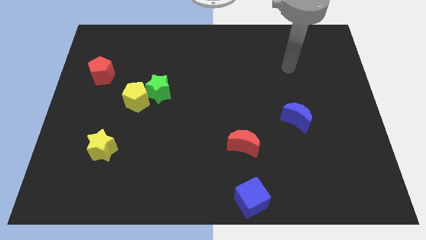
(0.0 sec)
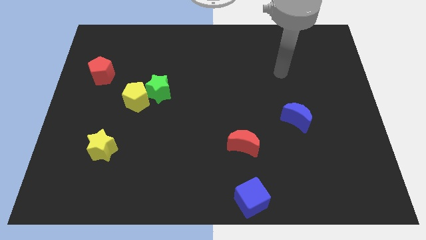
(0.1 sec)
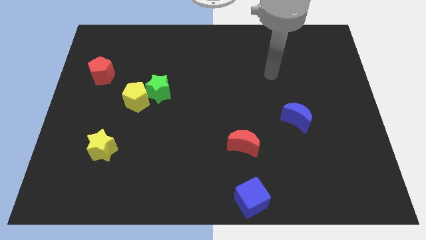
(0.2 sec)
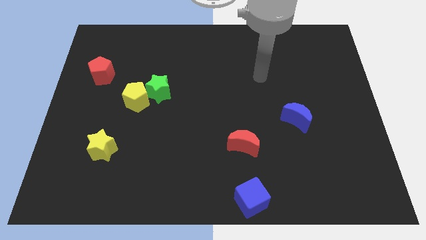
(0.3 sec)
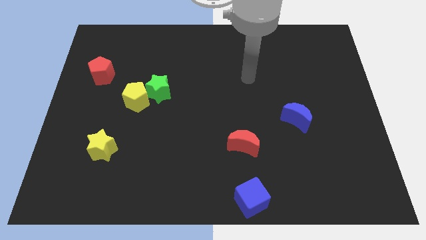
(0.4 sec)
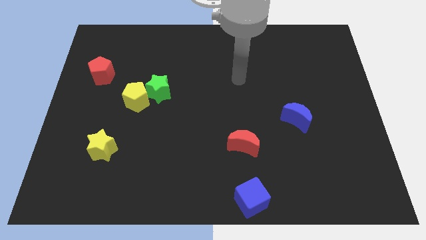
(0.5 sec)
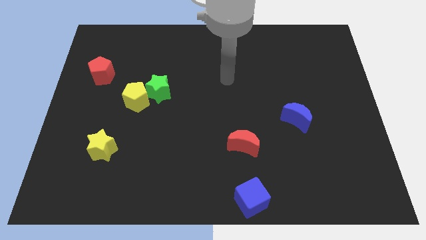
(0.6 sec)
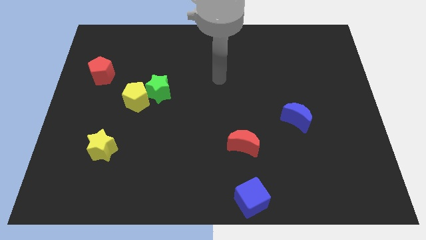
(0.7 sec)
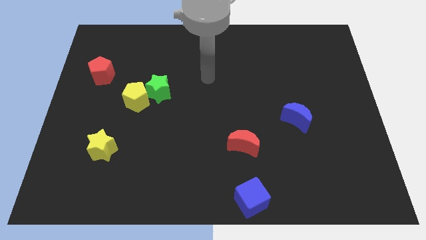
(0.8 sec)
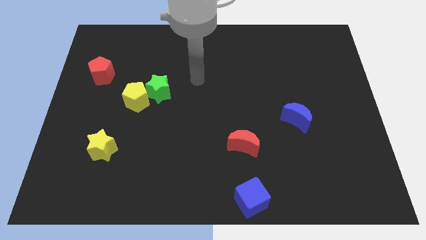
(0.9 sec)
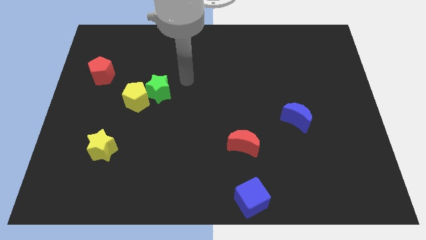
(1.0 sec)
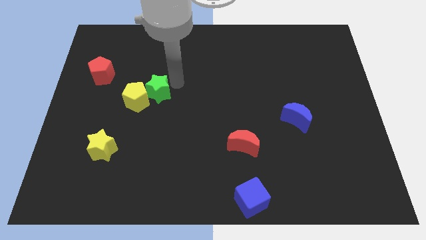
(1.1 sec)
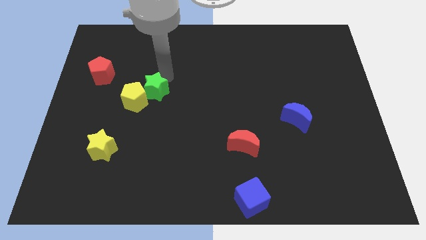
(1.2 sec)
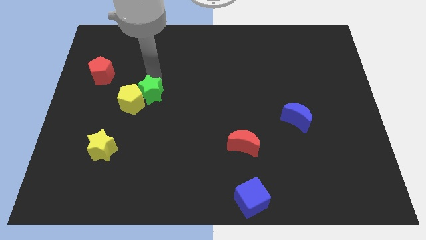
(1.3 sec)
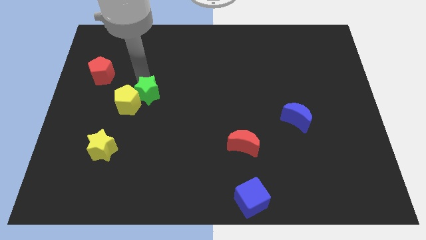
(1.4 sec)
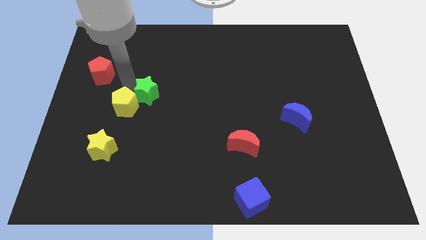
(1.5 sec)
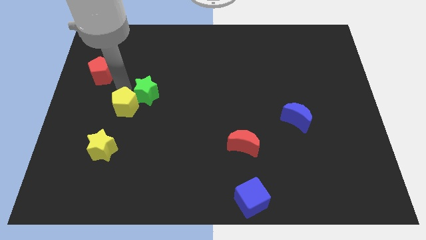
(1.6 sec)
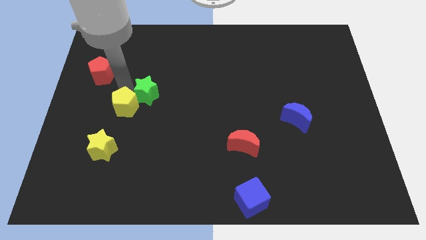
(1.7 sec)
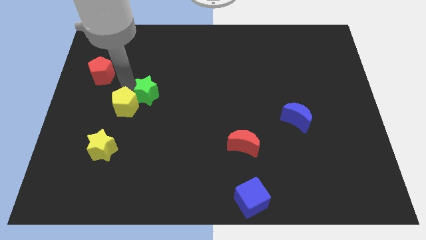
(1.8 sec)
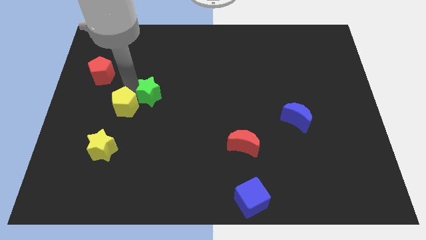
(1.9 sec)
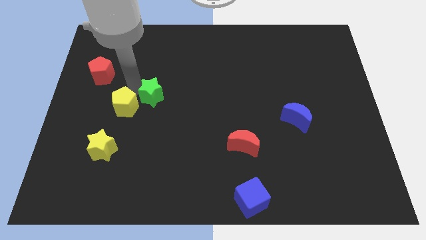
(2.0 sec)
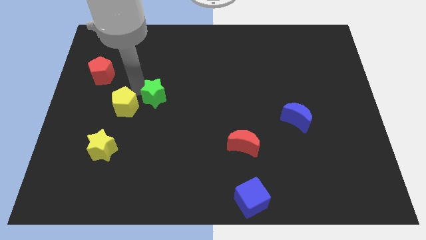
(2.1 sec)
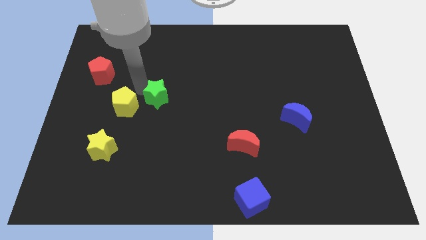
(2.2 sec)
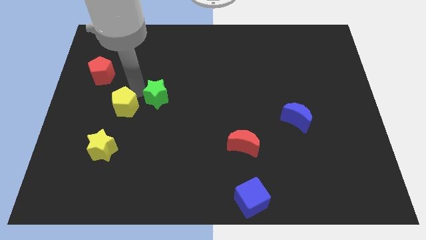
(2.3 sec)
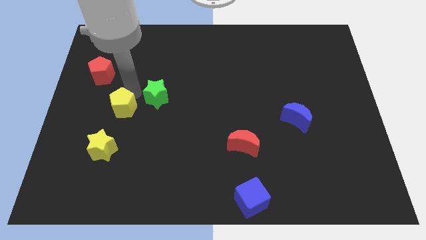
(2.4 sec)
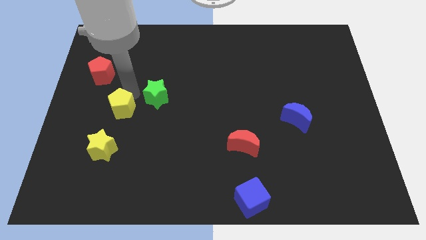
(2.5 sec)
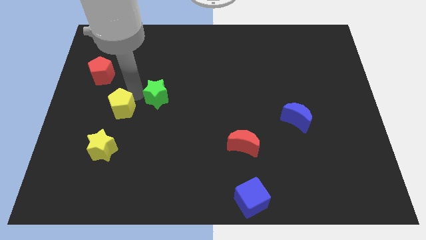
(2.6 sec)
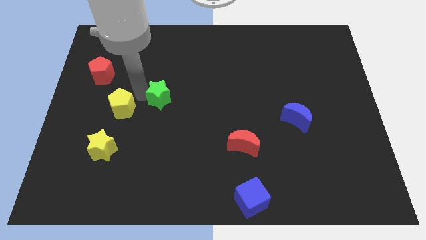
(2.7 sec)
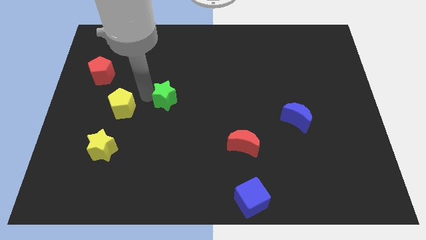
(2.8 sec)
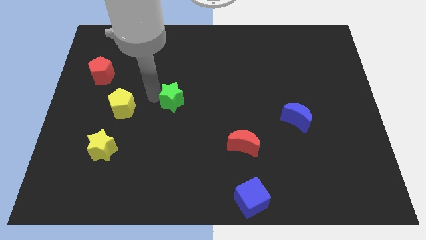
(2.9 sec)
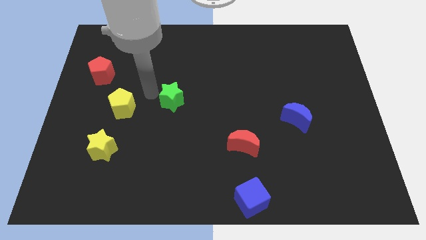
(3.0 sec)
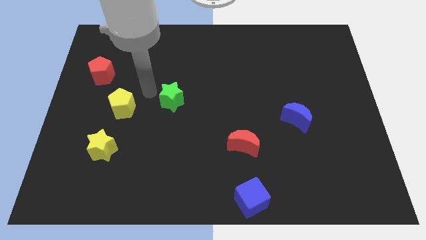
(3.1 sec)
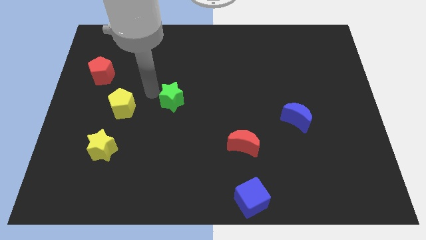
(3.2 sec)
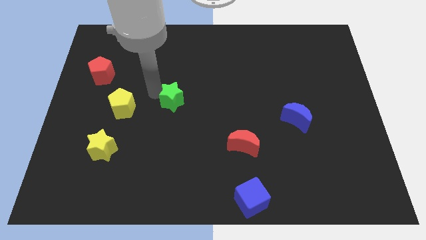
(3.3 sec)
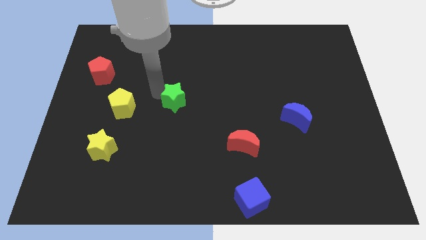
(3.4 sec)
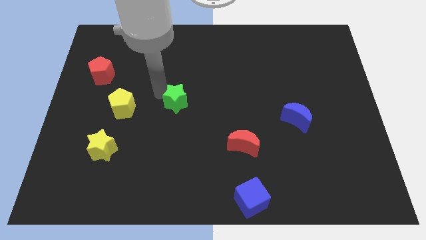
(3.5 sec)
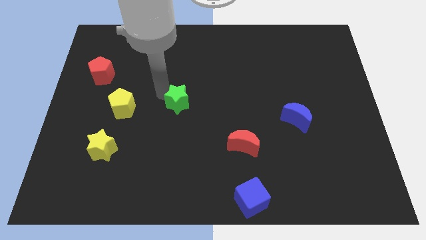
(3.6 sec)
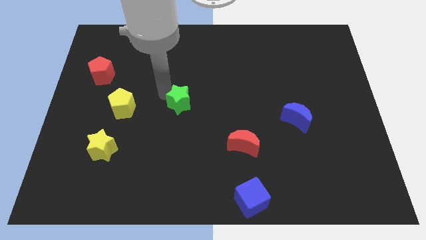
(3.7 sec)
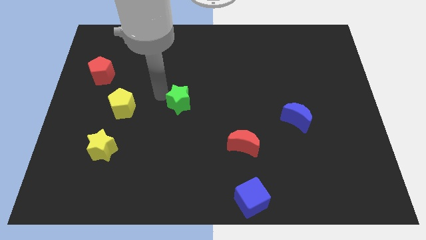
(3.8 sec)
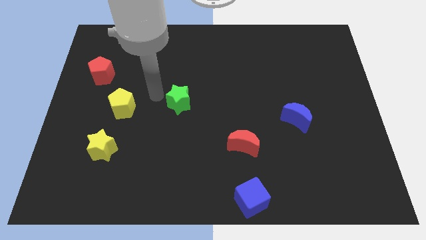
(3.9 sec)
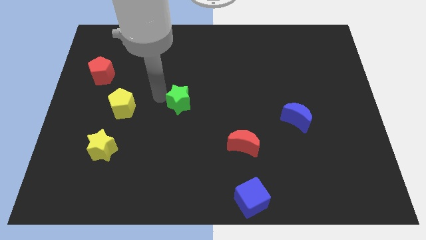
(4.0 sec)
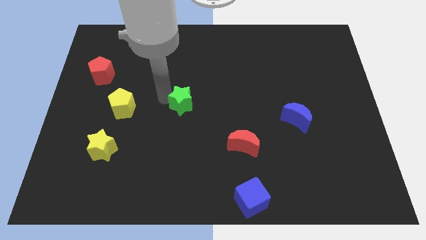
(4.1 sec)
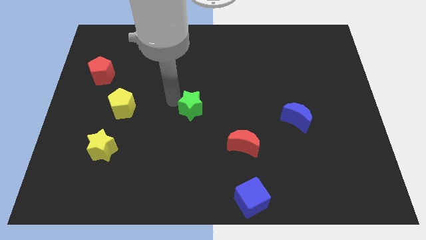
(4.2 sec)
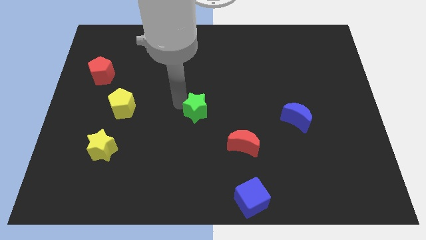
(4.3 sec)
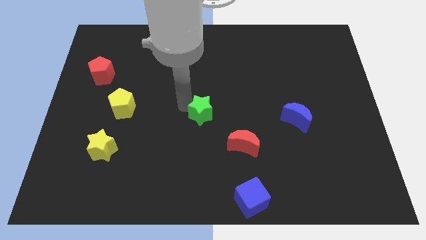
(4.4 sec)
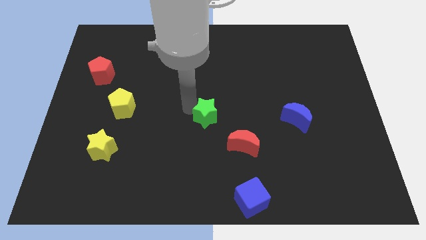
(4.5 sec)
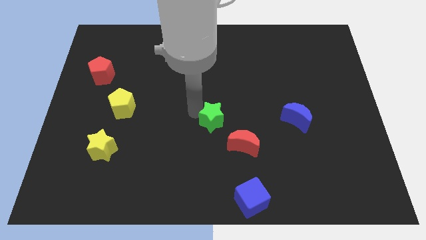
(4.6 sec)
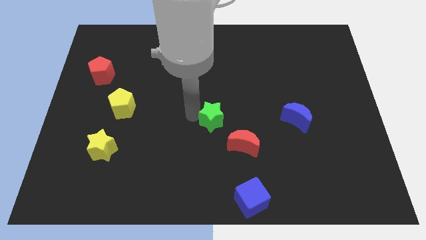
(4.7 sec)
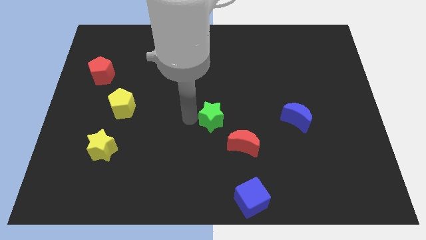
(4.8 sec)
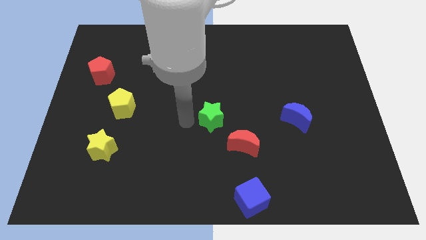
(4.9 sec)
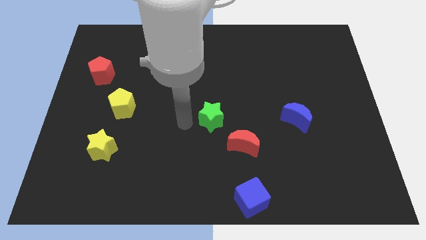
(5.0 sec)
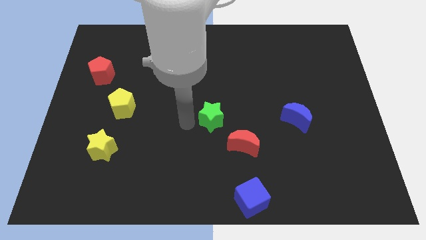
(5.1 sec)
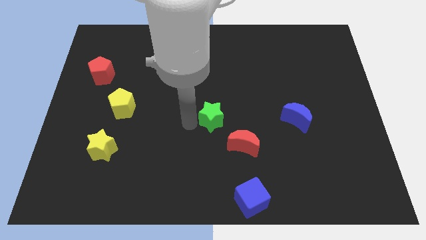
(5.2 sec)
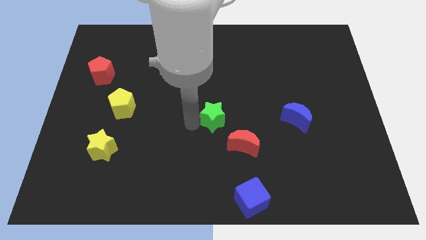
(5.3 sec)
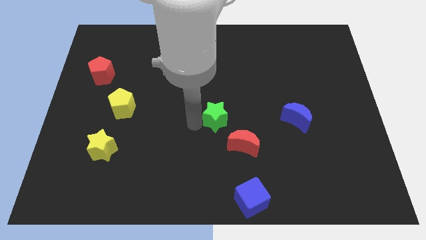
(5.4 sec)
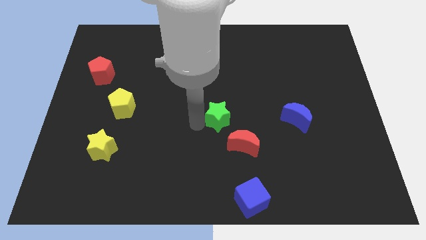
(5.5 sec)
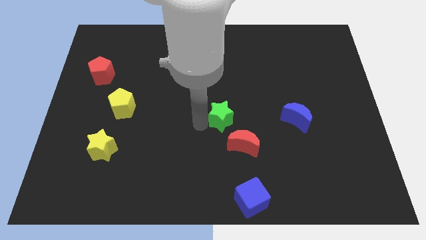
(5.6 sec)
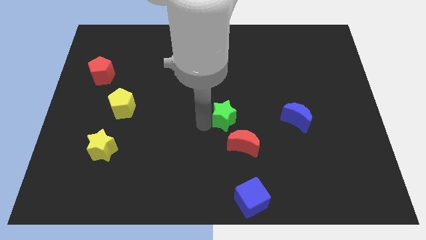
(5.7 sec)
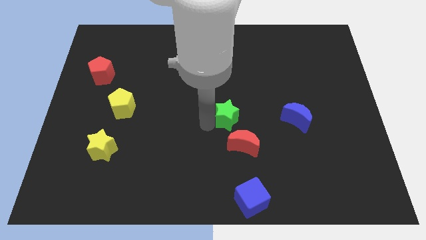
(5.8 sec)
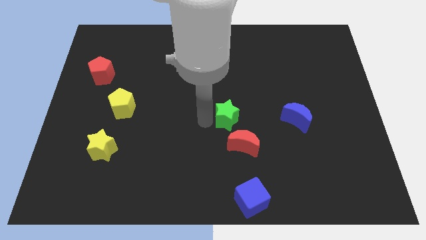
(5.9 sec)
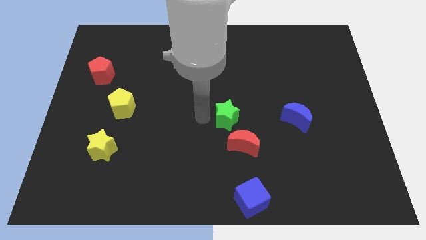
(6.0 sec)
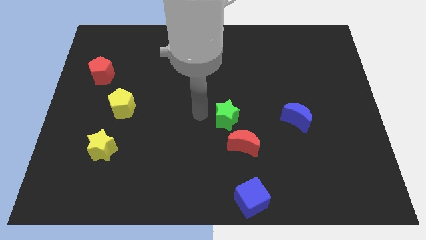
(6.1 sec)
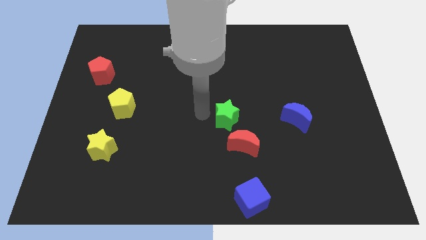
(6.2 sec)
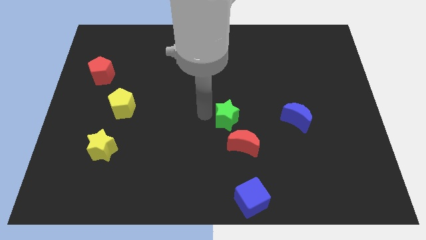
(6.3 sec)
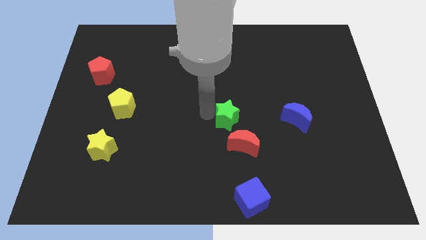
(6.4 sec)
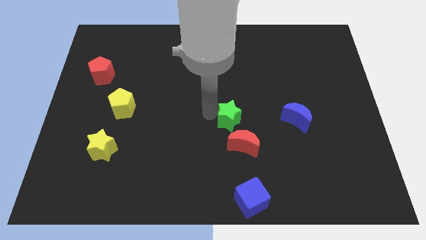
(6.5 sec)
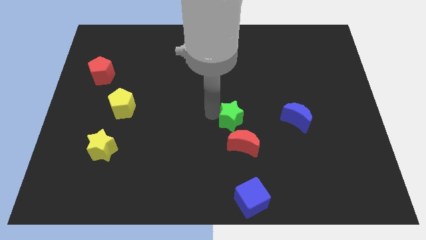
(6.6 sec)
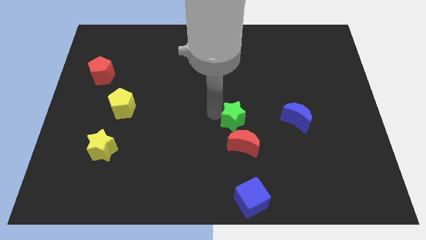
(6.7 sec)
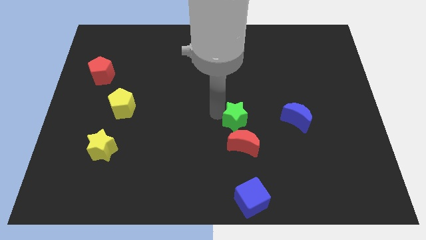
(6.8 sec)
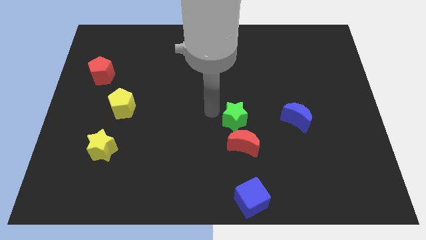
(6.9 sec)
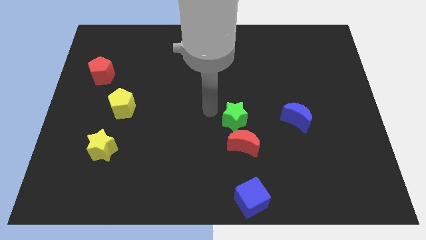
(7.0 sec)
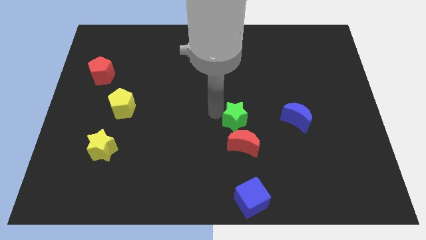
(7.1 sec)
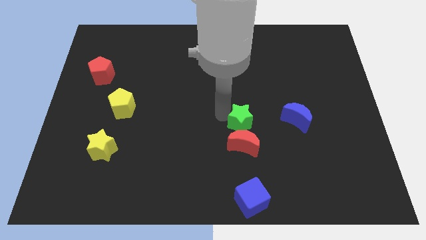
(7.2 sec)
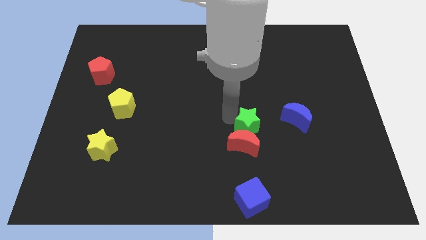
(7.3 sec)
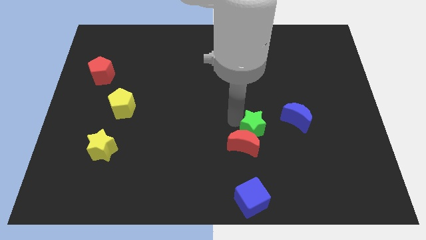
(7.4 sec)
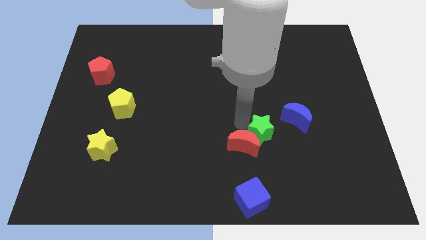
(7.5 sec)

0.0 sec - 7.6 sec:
slide the green star to the bottom left side of the blue moon
